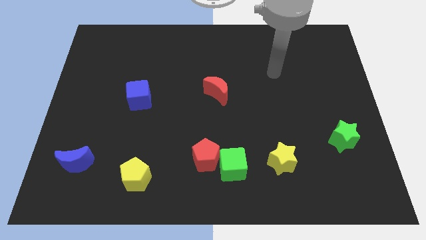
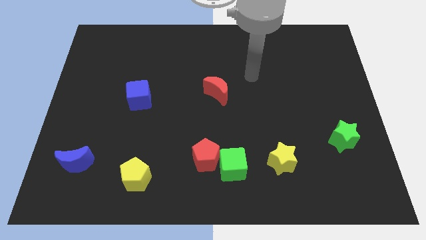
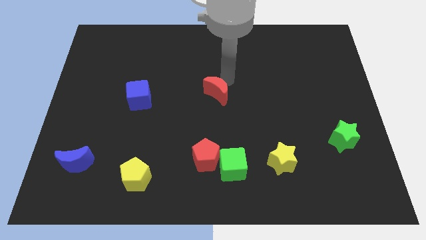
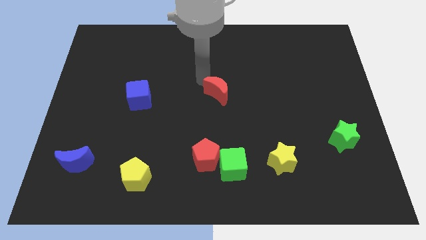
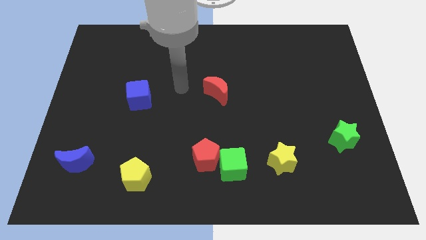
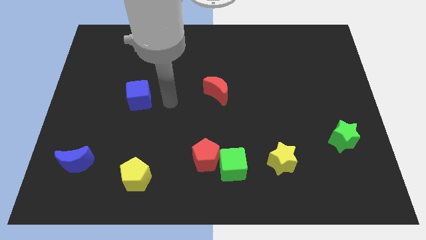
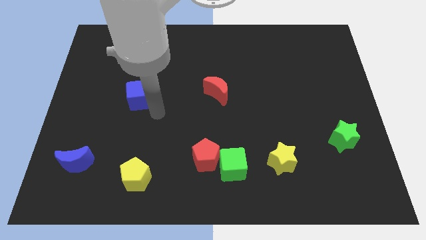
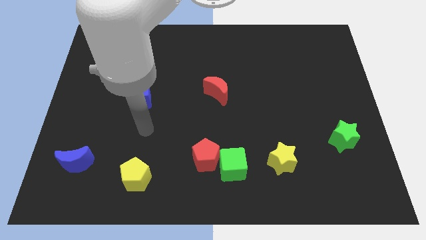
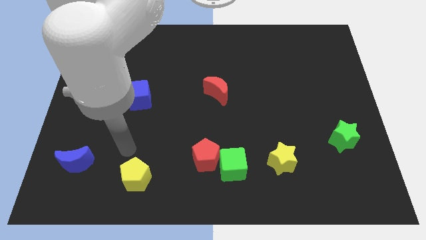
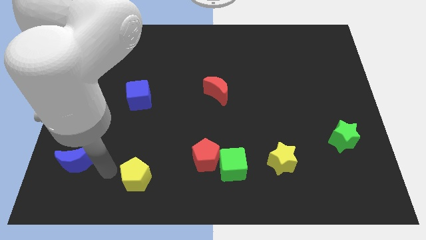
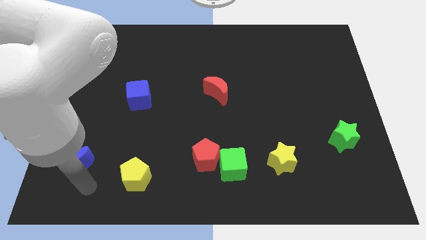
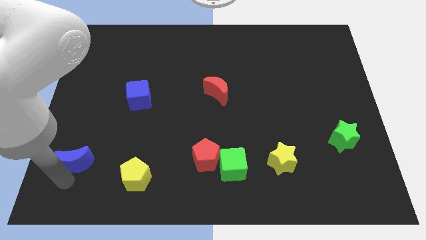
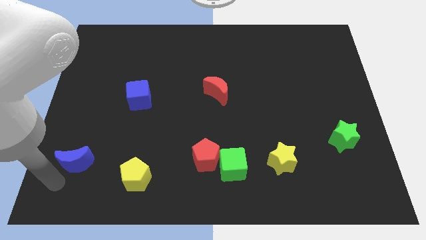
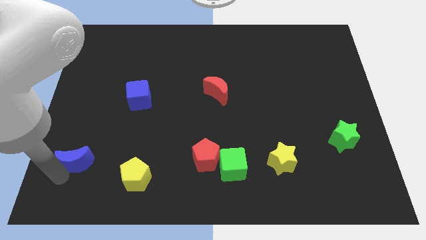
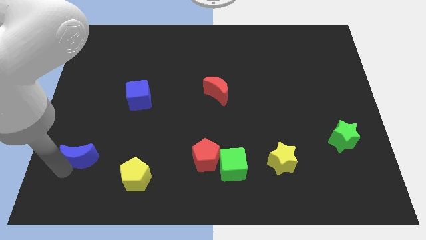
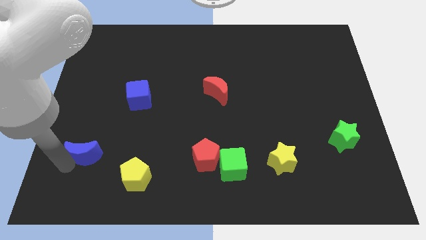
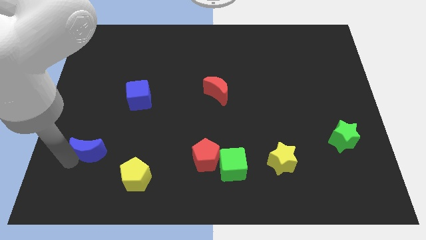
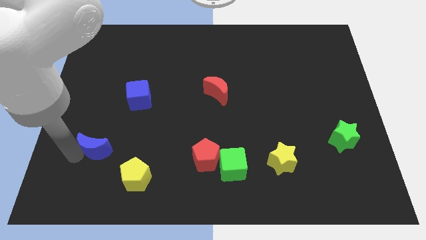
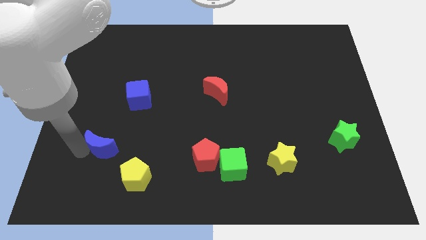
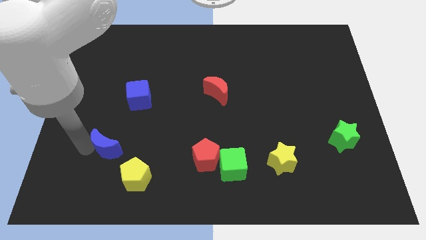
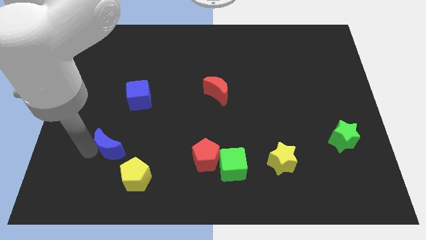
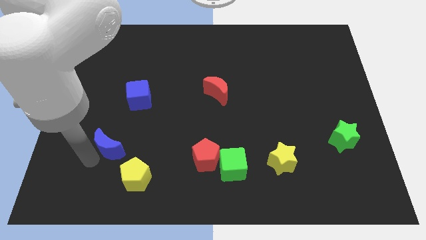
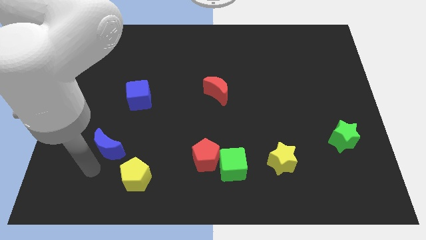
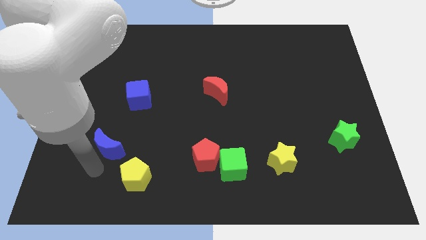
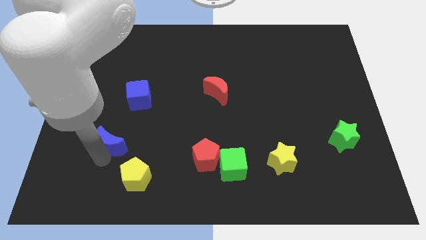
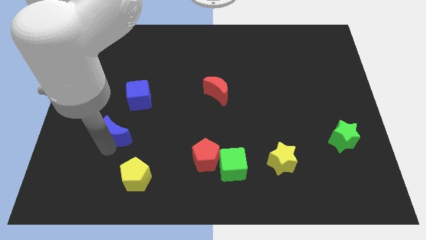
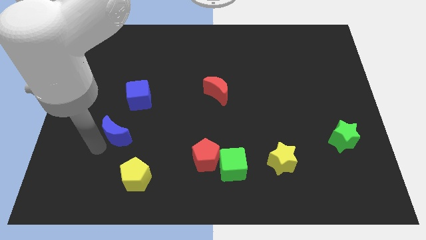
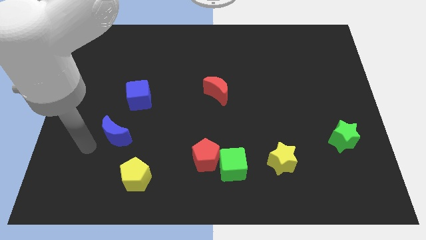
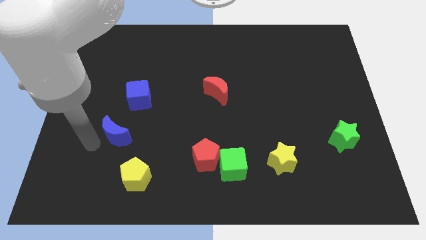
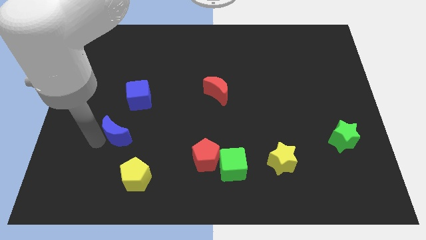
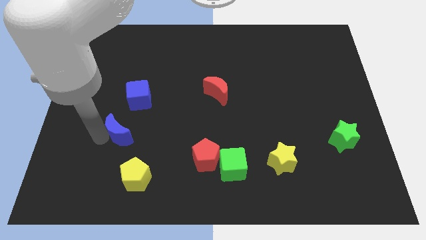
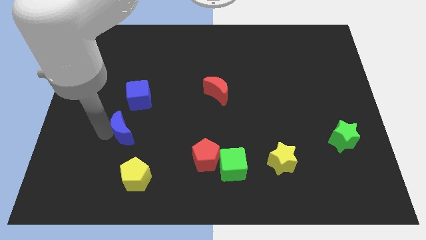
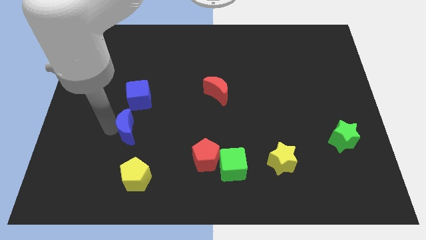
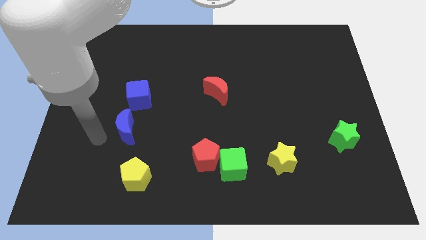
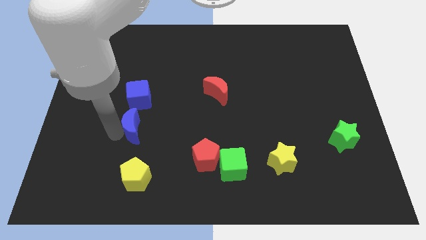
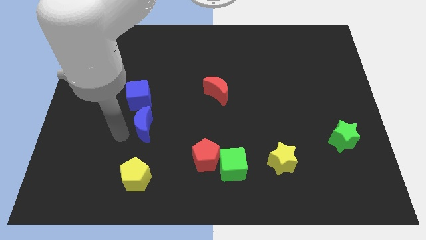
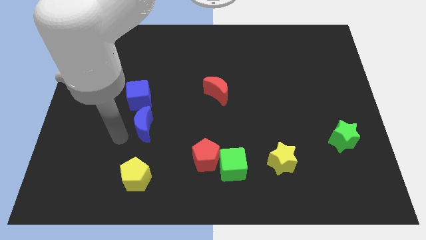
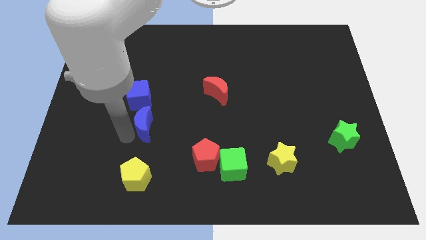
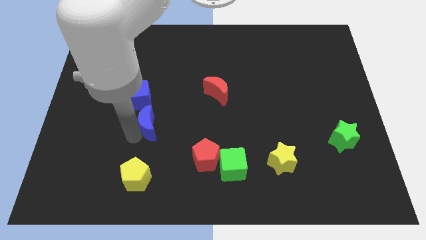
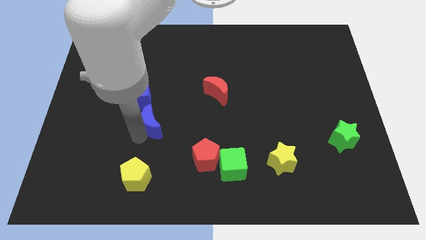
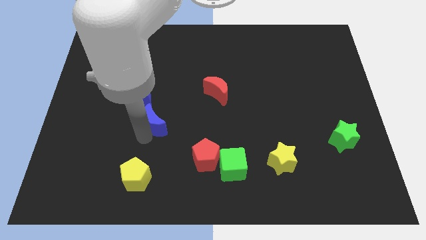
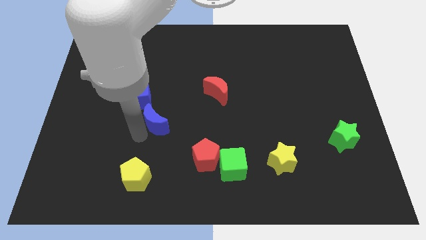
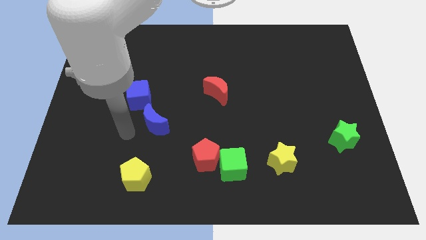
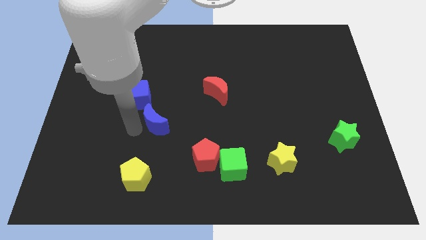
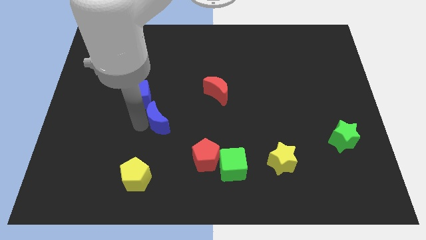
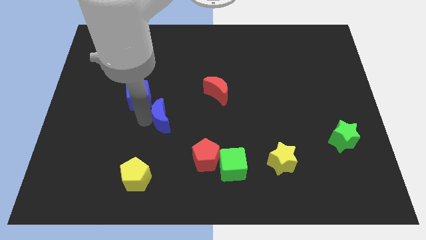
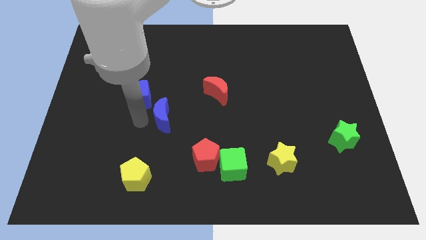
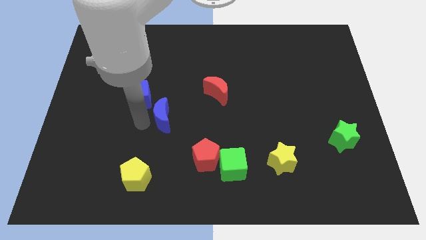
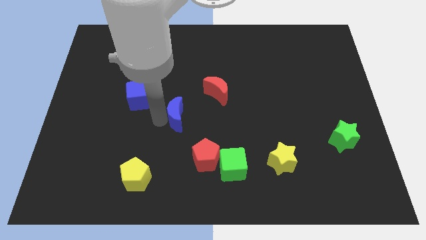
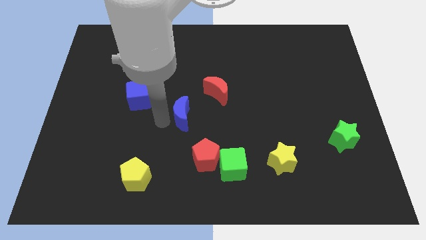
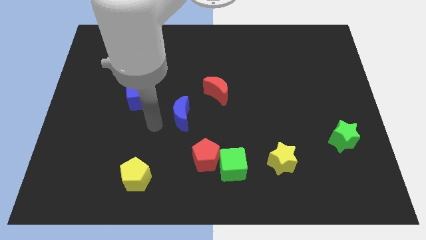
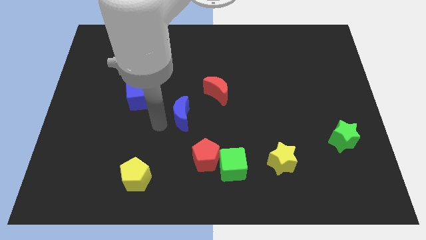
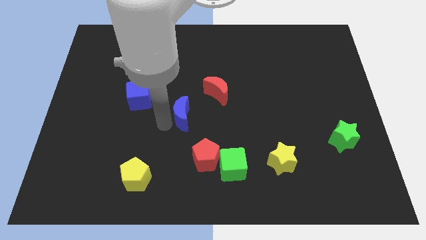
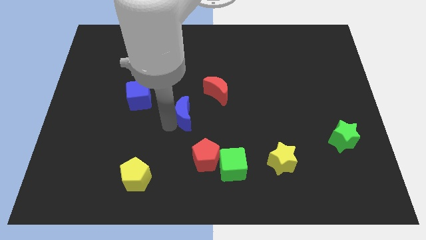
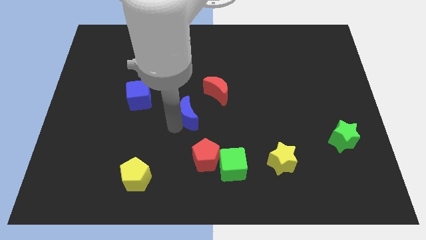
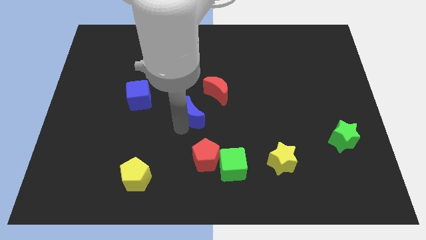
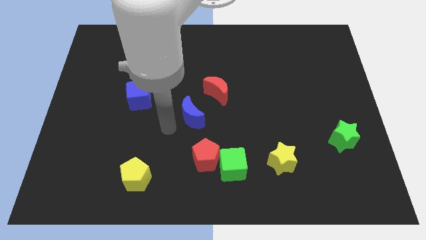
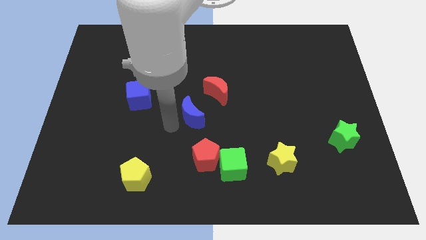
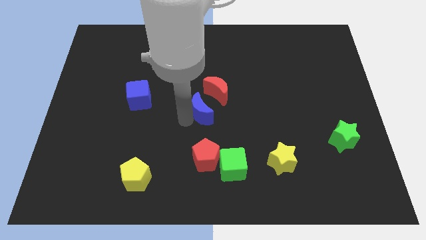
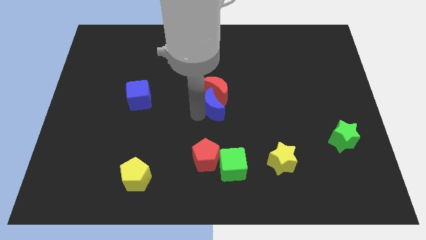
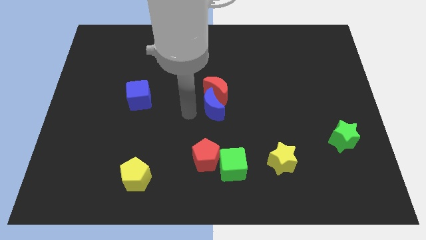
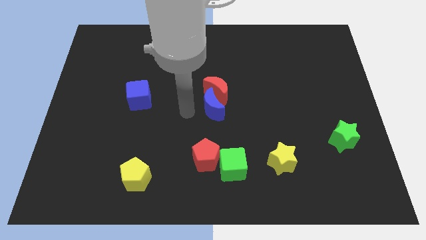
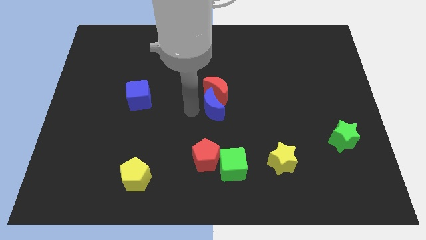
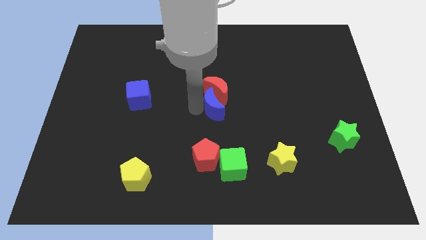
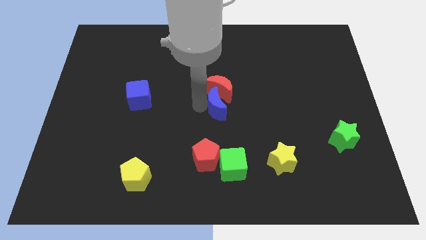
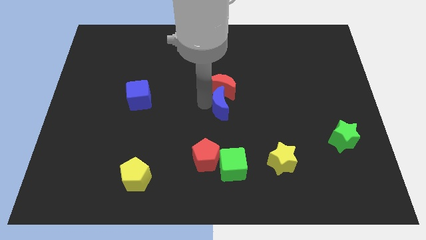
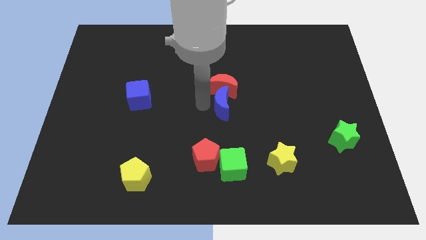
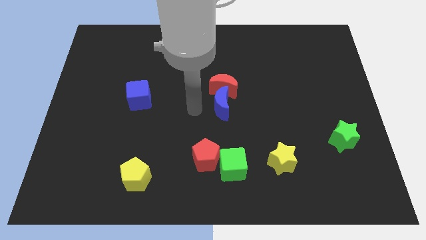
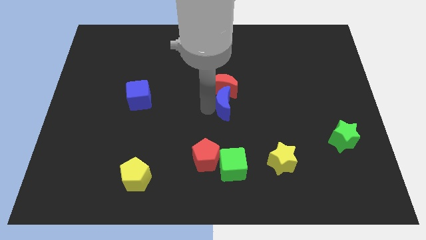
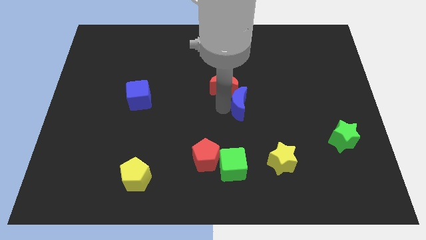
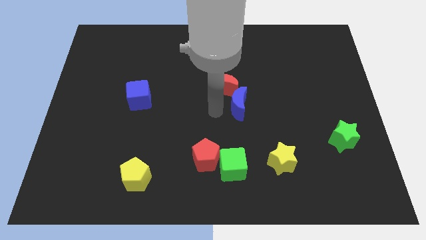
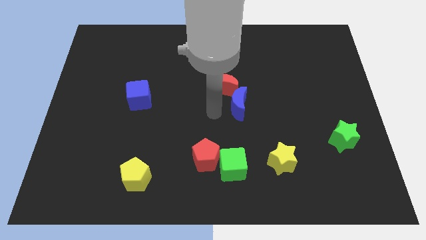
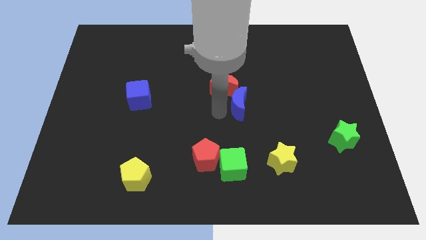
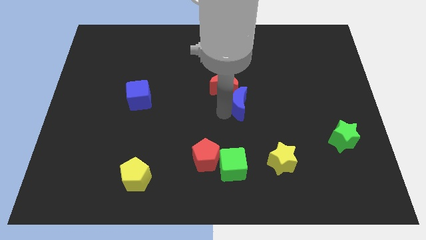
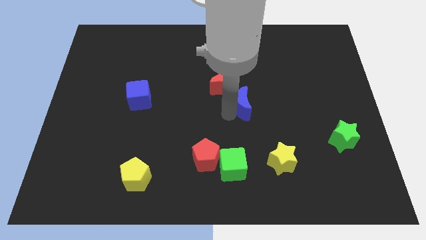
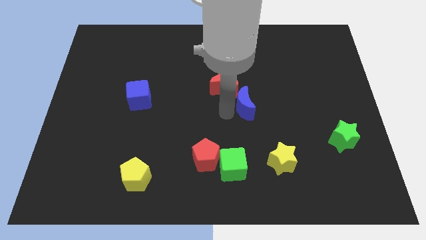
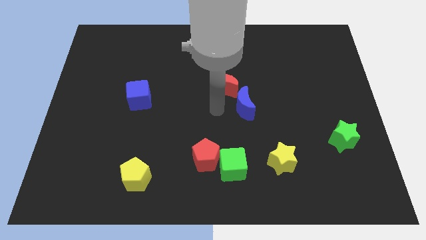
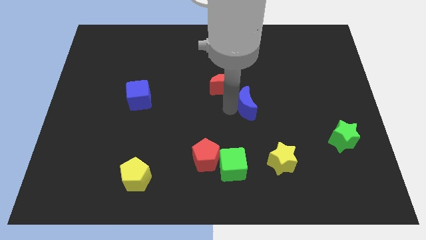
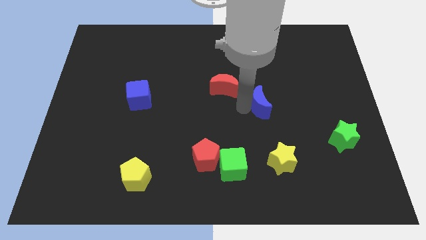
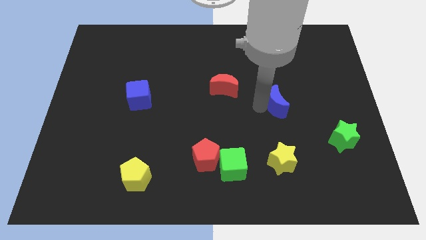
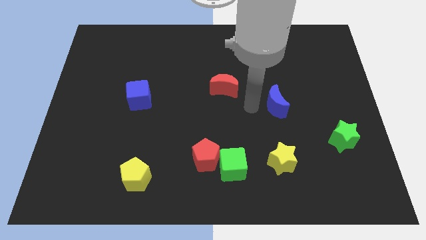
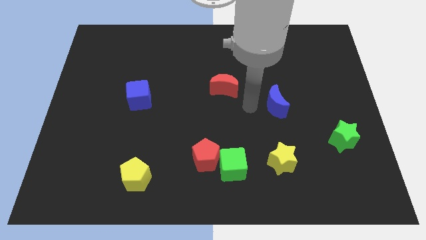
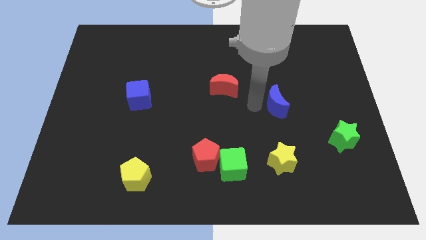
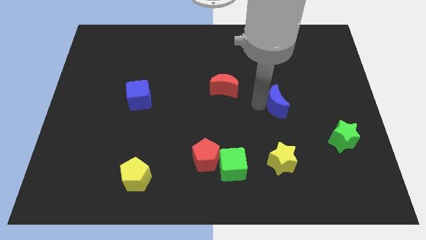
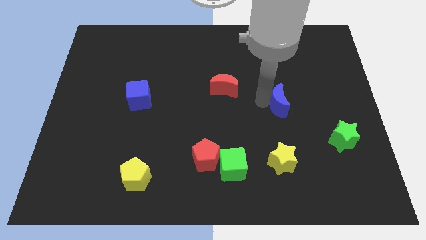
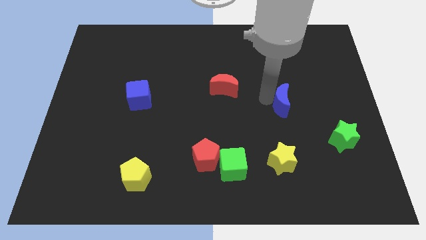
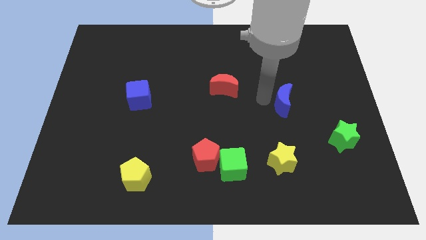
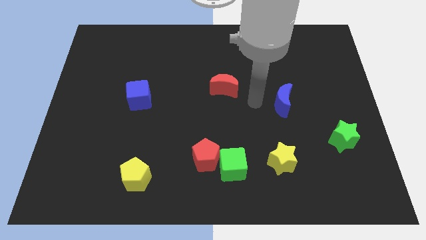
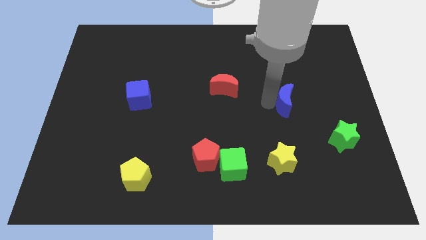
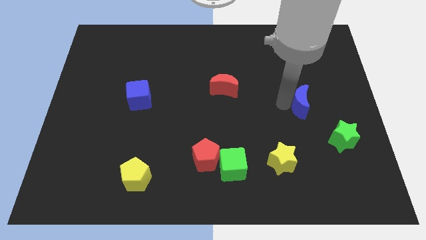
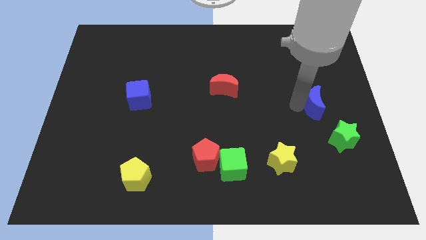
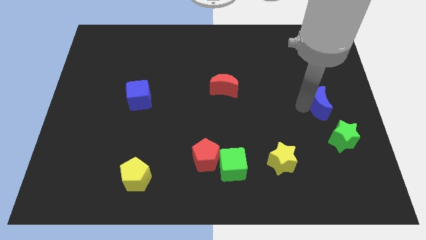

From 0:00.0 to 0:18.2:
move the blue moon to the right side
